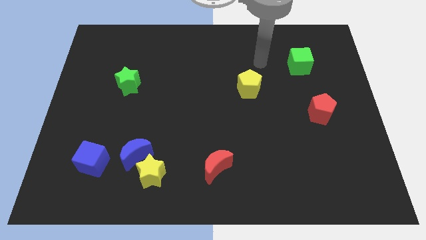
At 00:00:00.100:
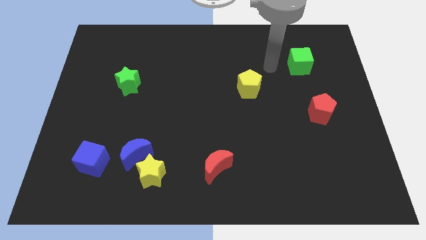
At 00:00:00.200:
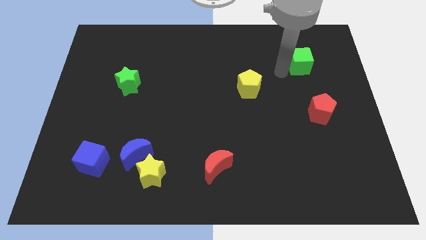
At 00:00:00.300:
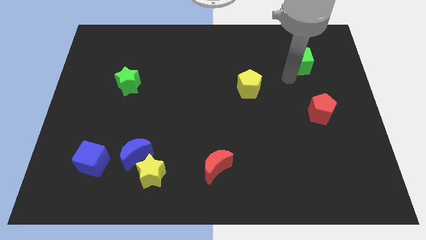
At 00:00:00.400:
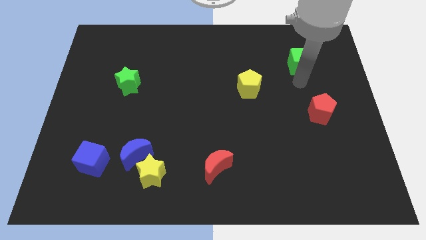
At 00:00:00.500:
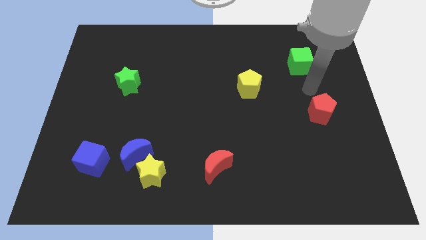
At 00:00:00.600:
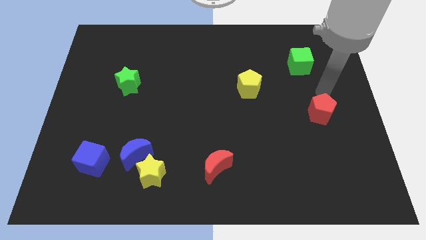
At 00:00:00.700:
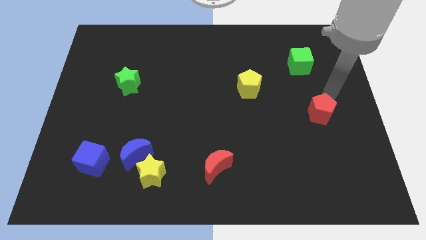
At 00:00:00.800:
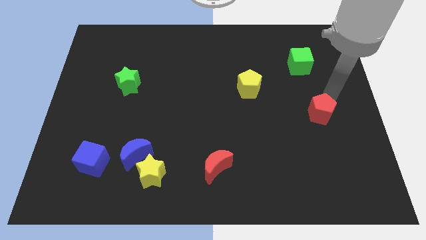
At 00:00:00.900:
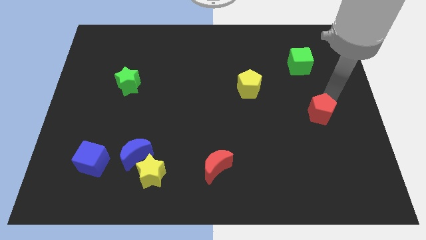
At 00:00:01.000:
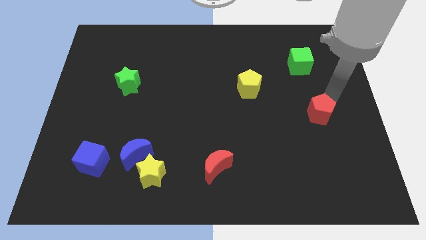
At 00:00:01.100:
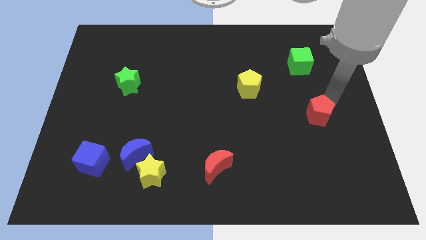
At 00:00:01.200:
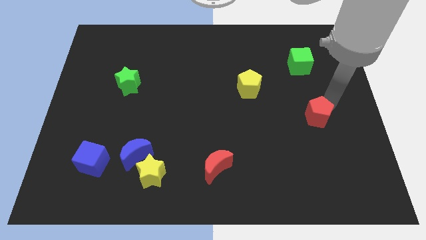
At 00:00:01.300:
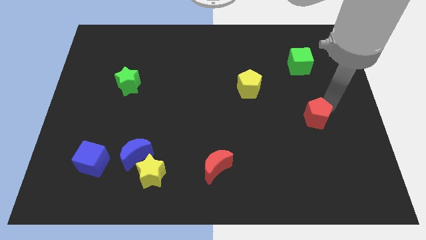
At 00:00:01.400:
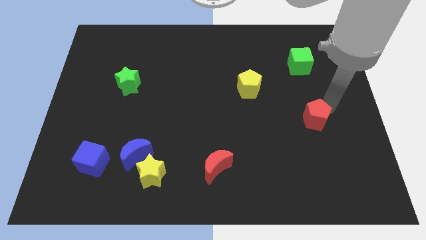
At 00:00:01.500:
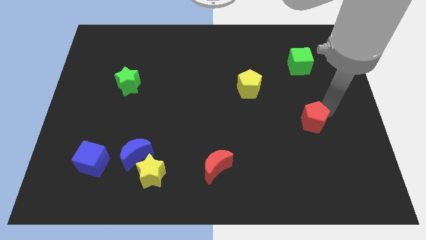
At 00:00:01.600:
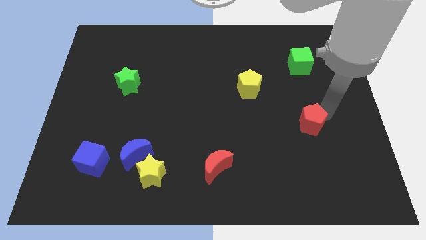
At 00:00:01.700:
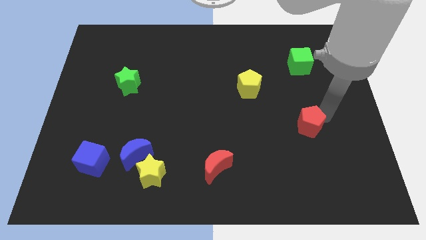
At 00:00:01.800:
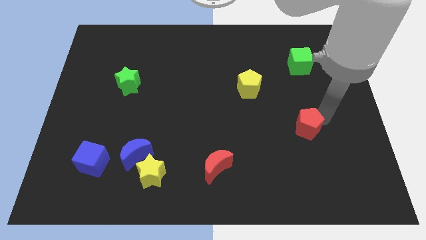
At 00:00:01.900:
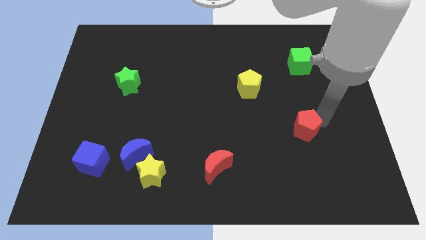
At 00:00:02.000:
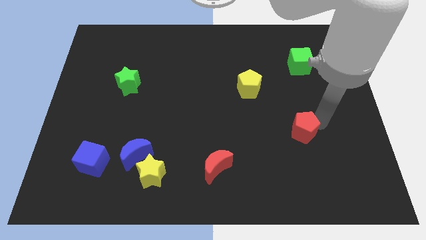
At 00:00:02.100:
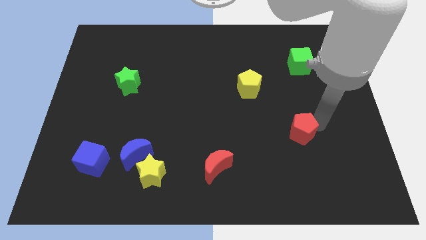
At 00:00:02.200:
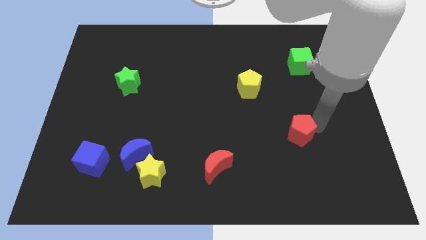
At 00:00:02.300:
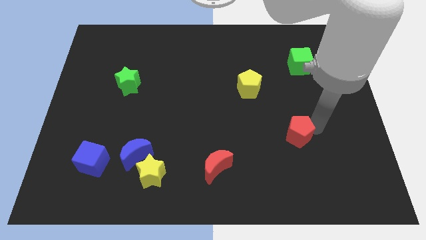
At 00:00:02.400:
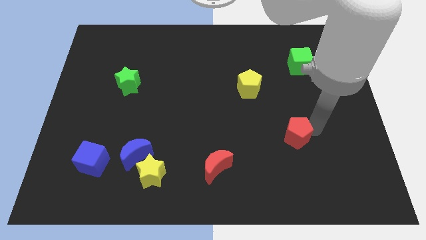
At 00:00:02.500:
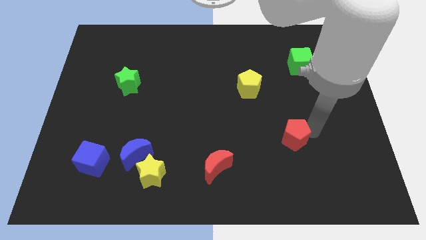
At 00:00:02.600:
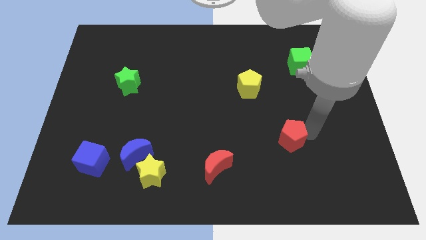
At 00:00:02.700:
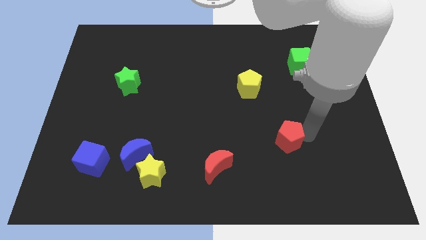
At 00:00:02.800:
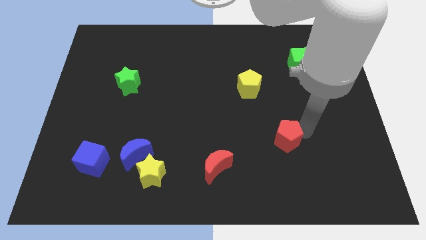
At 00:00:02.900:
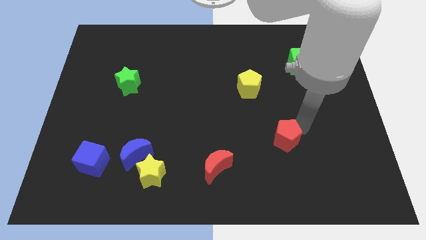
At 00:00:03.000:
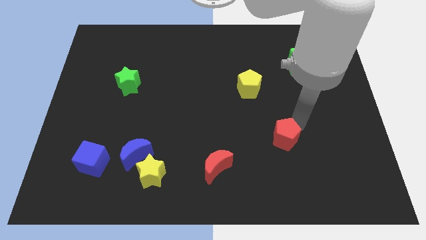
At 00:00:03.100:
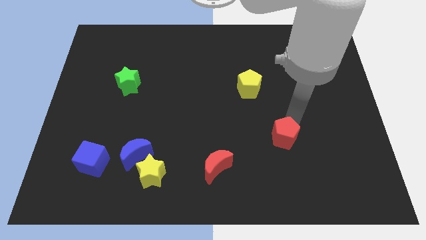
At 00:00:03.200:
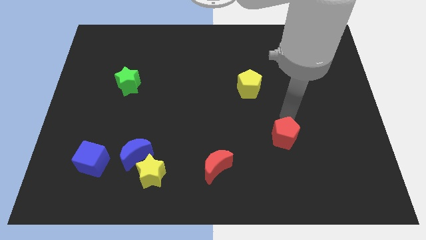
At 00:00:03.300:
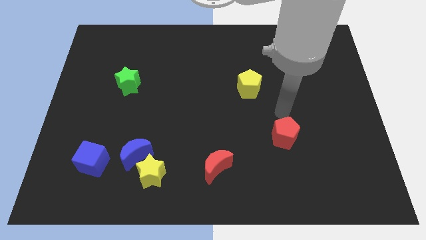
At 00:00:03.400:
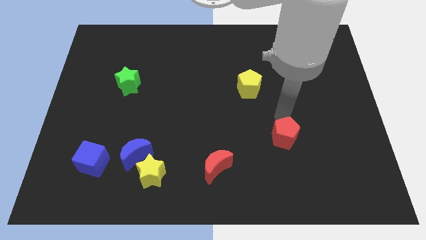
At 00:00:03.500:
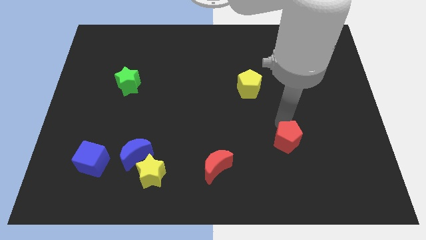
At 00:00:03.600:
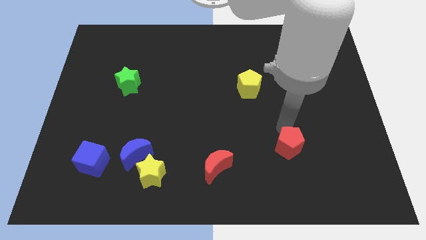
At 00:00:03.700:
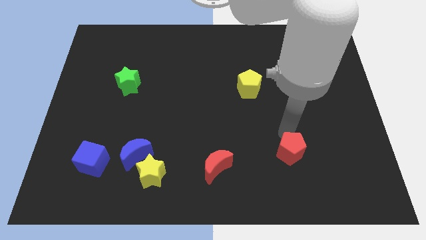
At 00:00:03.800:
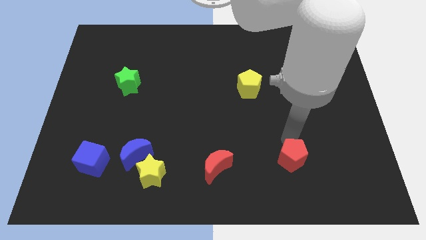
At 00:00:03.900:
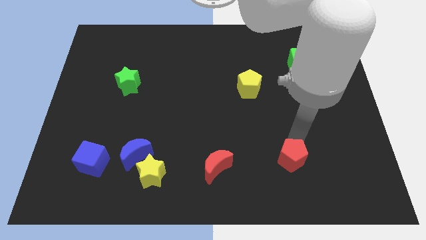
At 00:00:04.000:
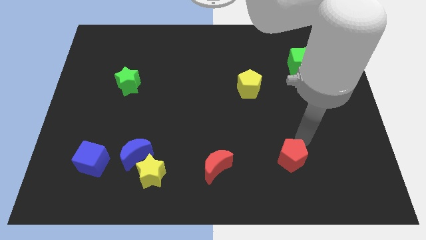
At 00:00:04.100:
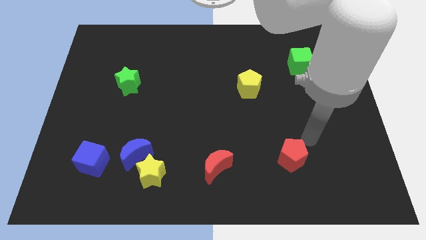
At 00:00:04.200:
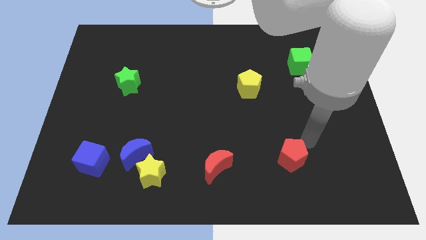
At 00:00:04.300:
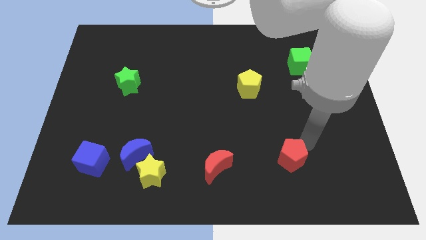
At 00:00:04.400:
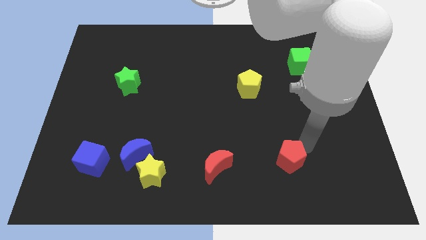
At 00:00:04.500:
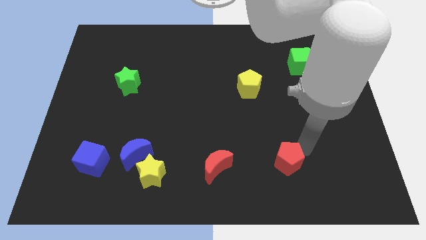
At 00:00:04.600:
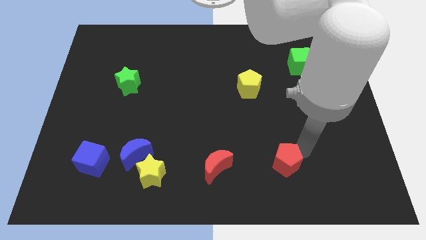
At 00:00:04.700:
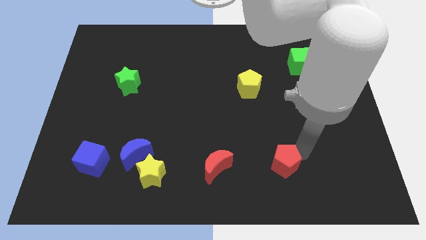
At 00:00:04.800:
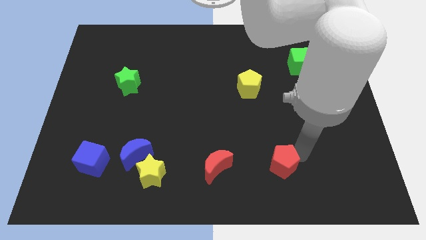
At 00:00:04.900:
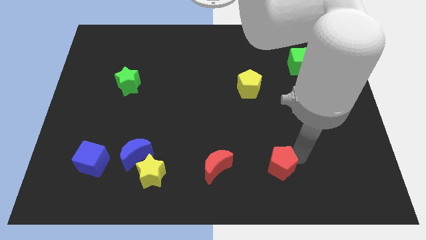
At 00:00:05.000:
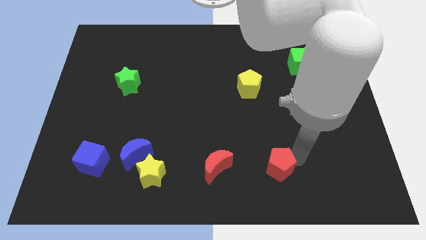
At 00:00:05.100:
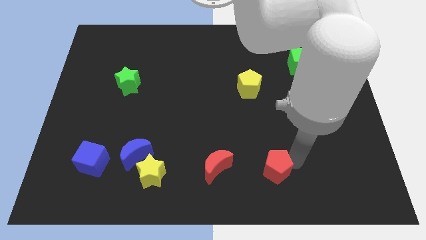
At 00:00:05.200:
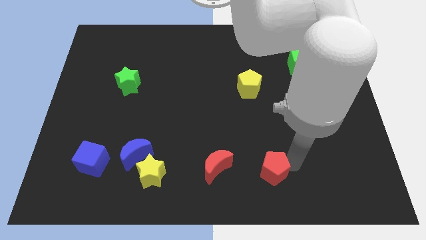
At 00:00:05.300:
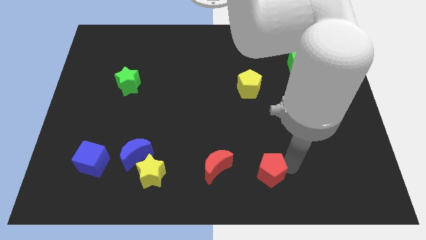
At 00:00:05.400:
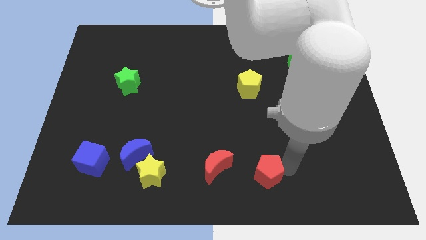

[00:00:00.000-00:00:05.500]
put the red pentagon to the bottom side

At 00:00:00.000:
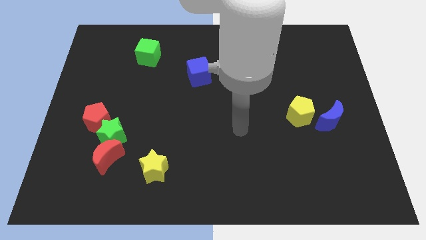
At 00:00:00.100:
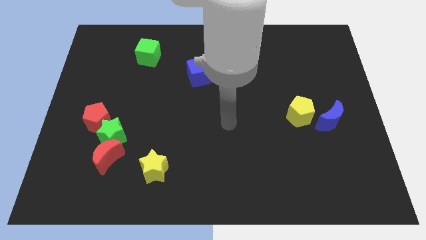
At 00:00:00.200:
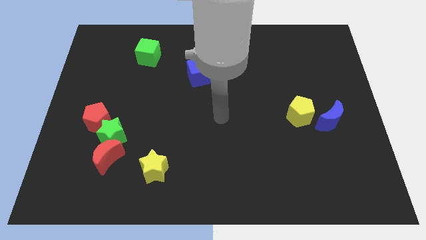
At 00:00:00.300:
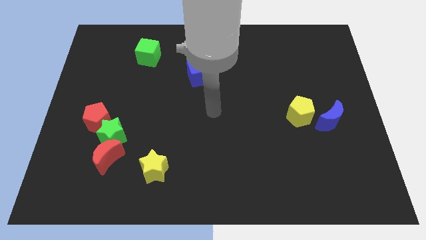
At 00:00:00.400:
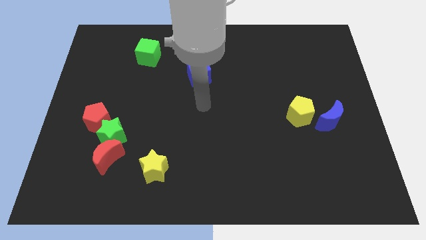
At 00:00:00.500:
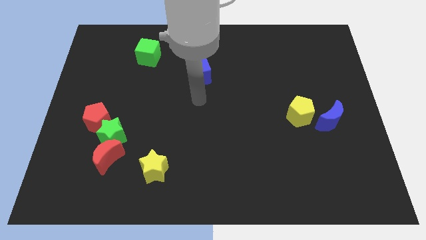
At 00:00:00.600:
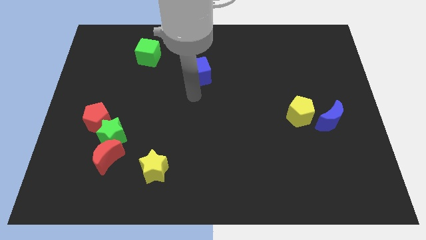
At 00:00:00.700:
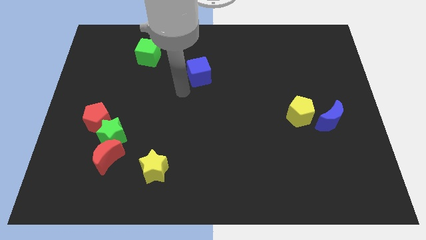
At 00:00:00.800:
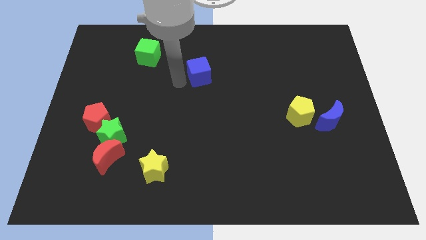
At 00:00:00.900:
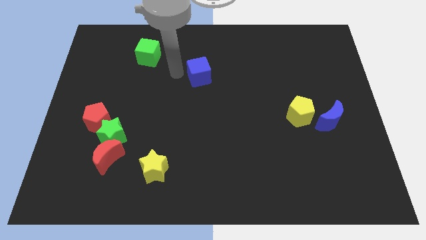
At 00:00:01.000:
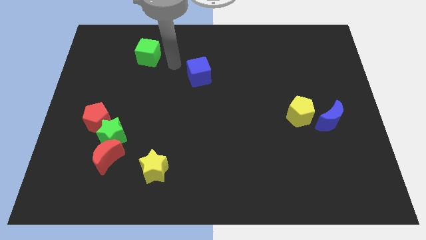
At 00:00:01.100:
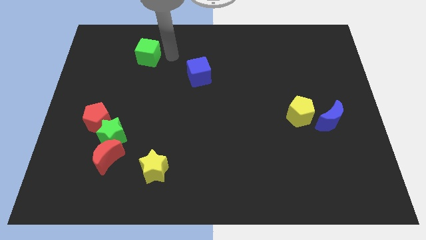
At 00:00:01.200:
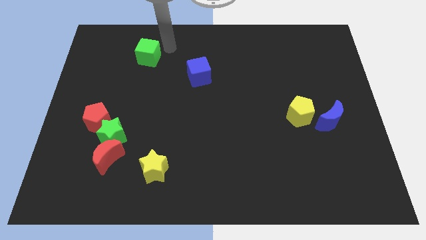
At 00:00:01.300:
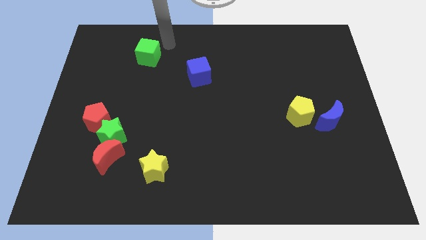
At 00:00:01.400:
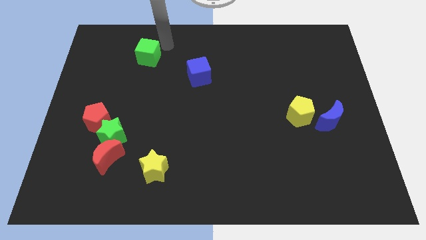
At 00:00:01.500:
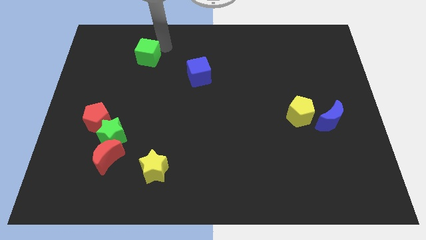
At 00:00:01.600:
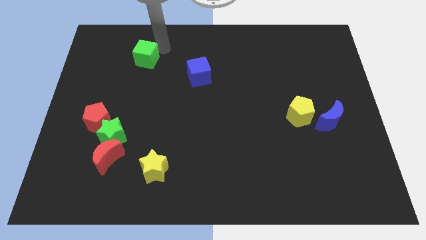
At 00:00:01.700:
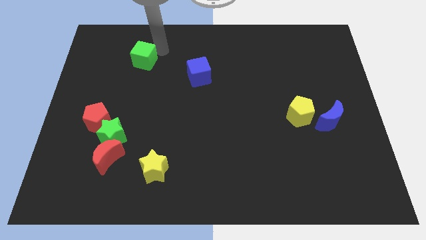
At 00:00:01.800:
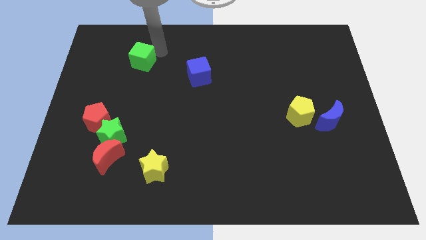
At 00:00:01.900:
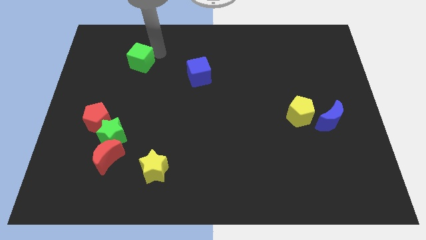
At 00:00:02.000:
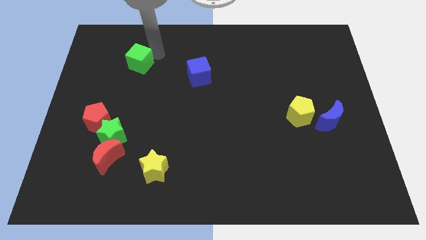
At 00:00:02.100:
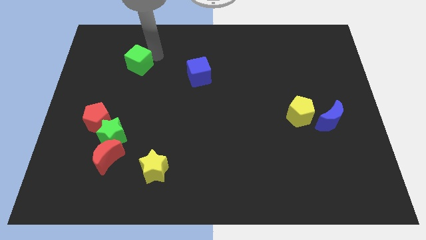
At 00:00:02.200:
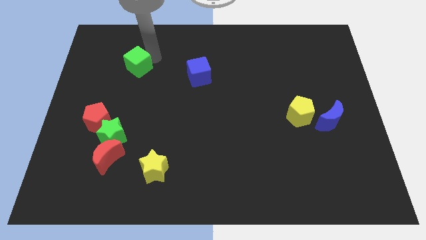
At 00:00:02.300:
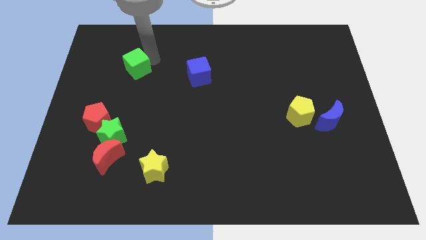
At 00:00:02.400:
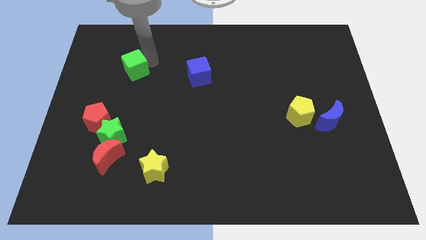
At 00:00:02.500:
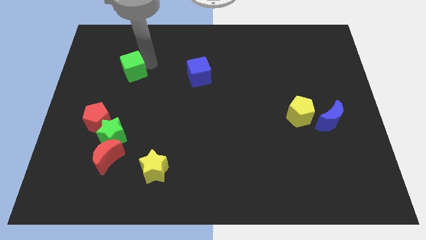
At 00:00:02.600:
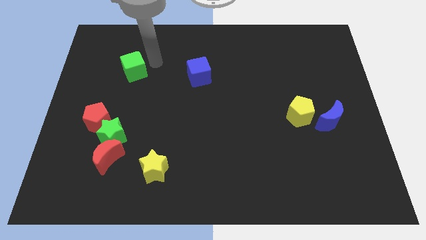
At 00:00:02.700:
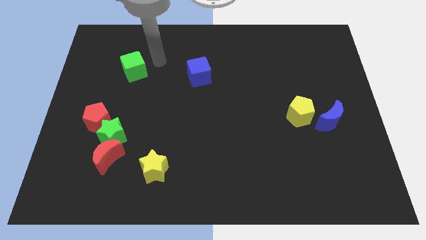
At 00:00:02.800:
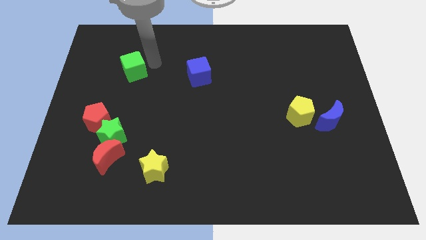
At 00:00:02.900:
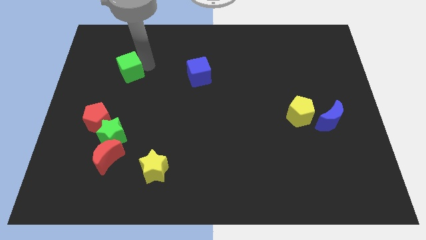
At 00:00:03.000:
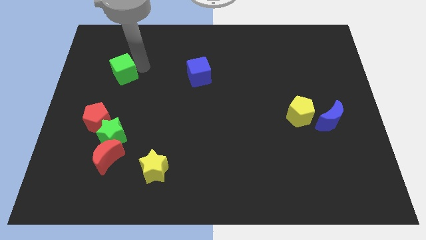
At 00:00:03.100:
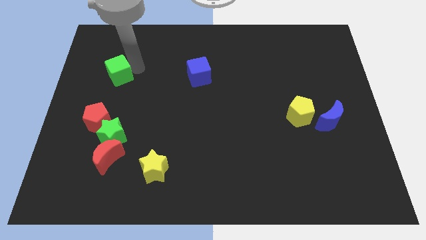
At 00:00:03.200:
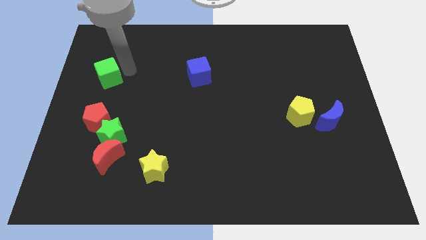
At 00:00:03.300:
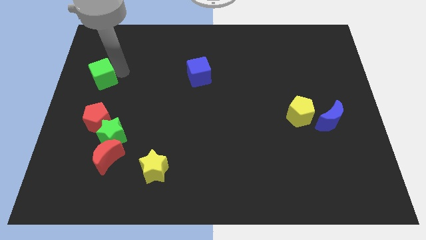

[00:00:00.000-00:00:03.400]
move the green cube to the left side of the board
